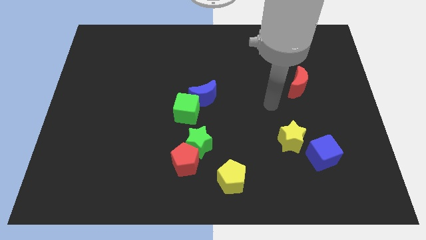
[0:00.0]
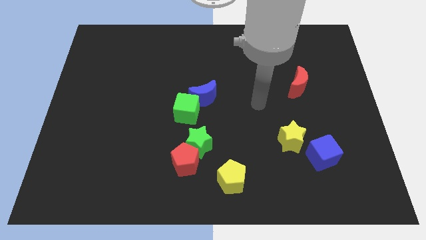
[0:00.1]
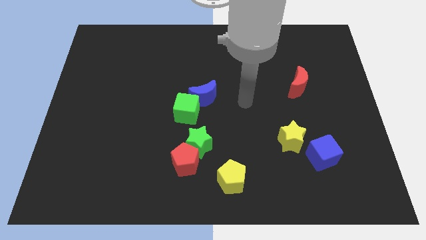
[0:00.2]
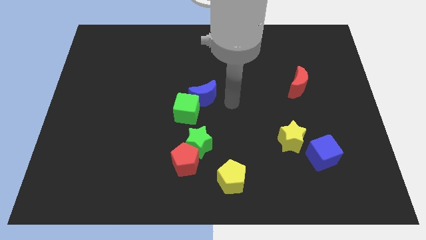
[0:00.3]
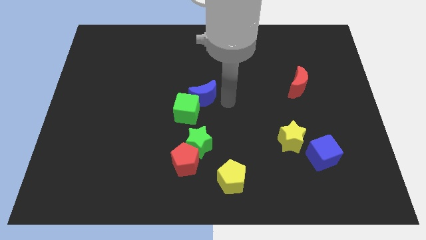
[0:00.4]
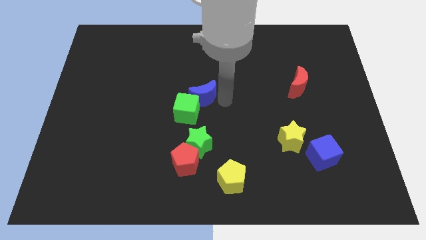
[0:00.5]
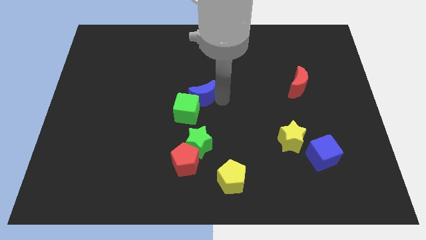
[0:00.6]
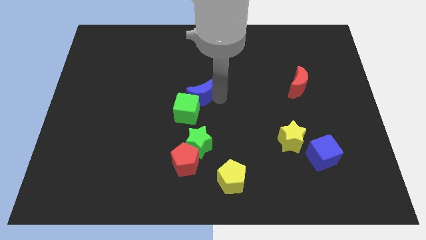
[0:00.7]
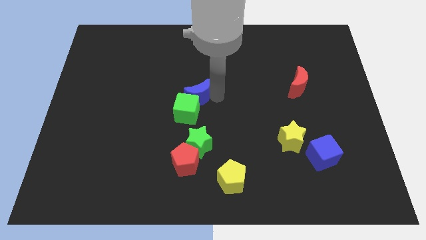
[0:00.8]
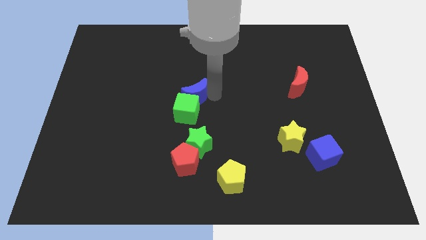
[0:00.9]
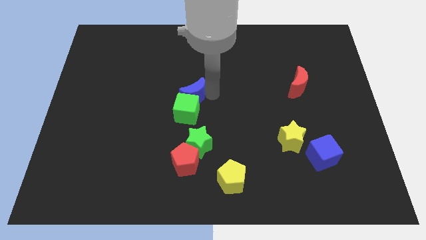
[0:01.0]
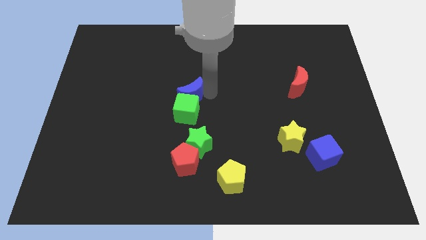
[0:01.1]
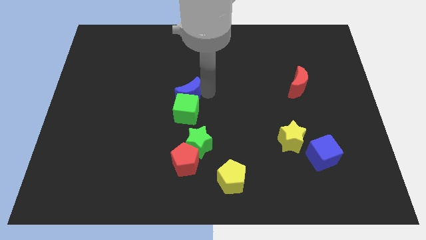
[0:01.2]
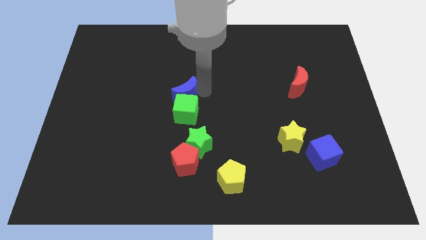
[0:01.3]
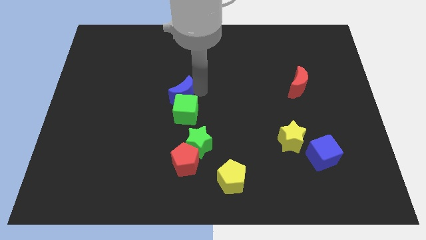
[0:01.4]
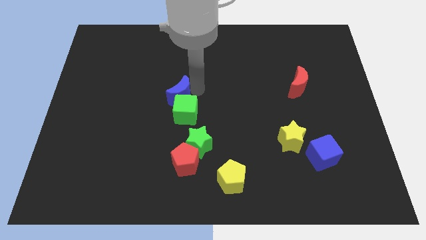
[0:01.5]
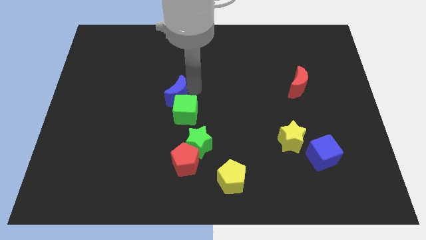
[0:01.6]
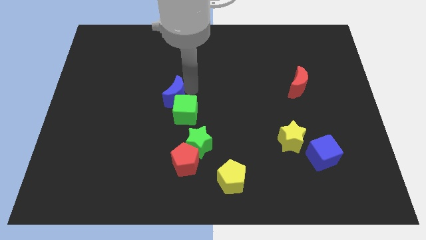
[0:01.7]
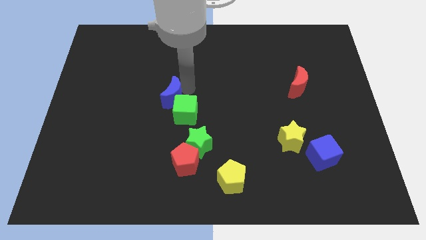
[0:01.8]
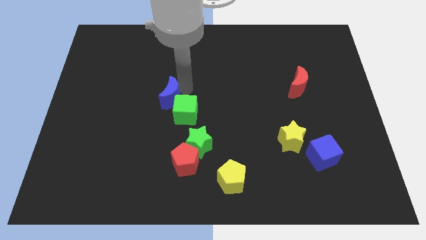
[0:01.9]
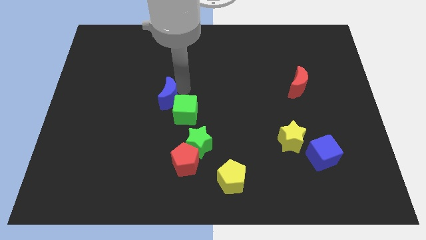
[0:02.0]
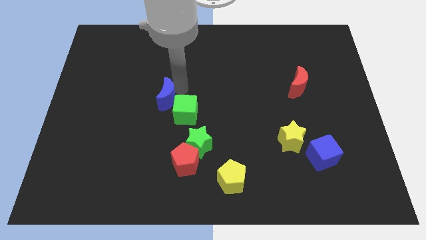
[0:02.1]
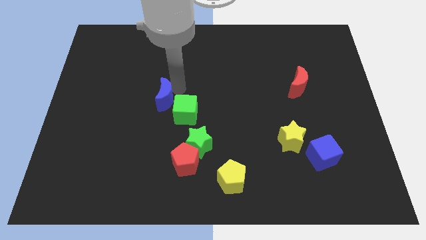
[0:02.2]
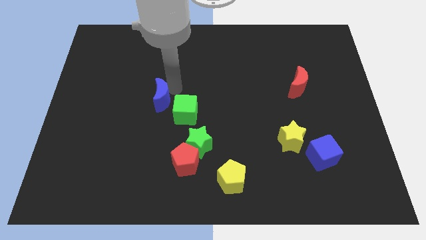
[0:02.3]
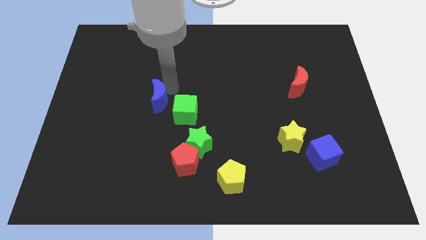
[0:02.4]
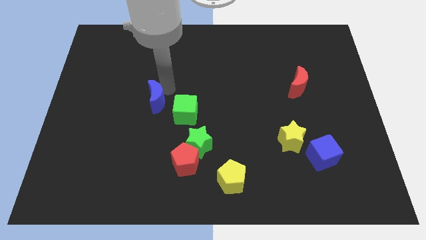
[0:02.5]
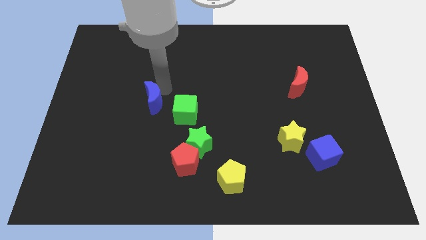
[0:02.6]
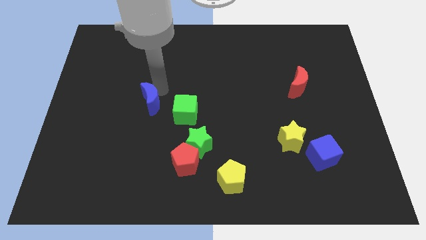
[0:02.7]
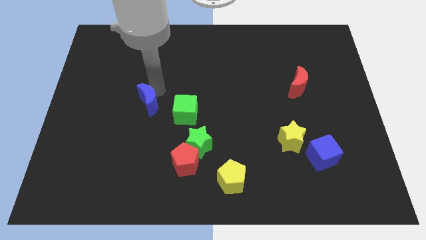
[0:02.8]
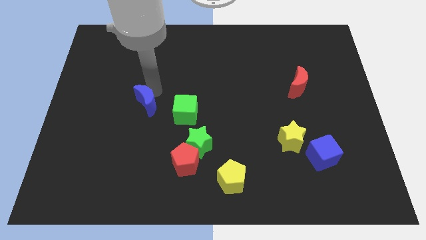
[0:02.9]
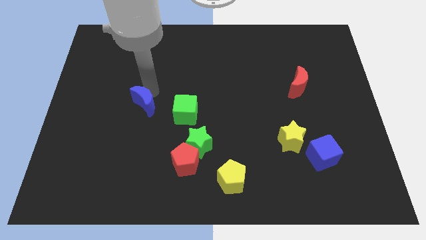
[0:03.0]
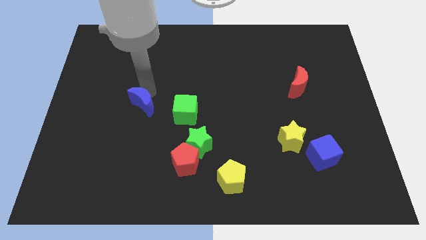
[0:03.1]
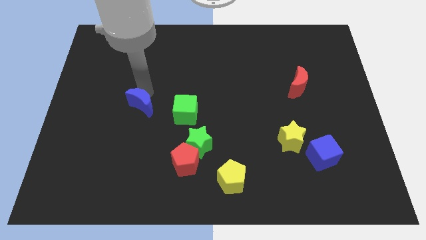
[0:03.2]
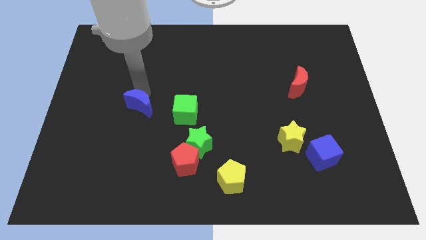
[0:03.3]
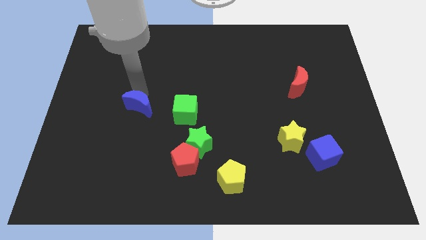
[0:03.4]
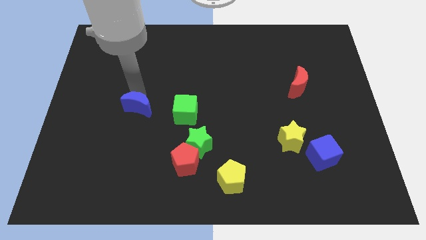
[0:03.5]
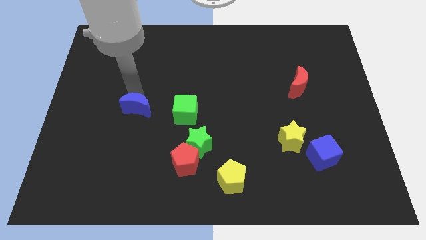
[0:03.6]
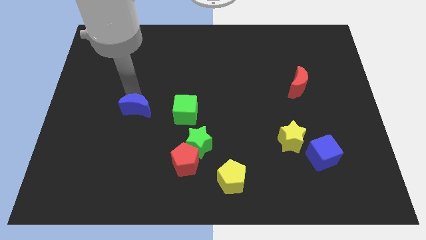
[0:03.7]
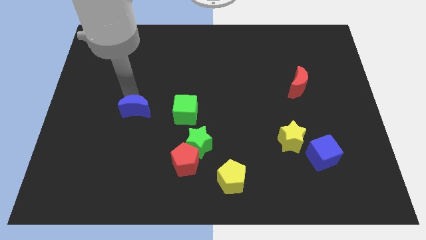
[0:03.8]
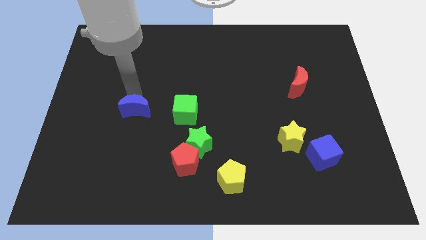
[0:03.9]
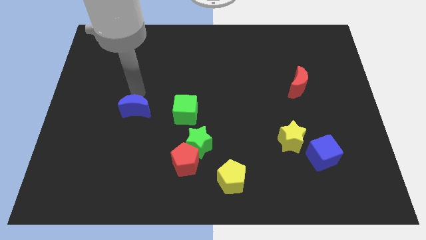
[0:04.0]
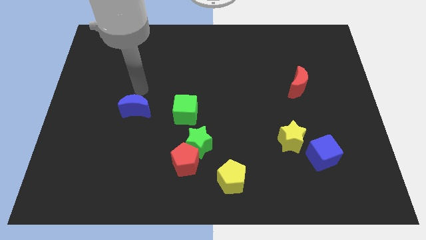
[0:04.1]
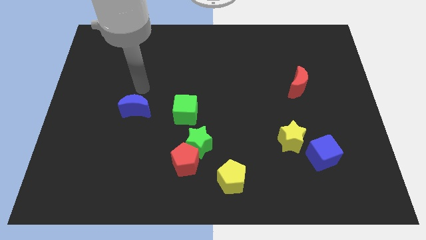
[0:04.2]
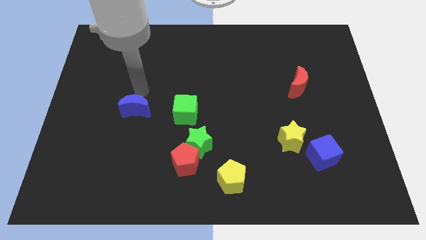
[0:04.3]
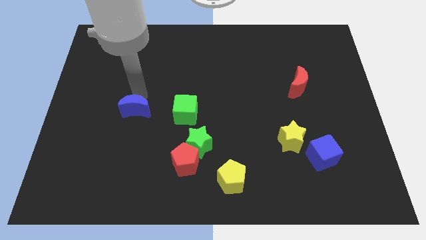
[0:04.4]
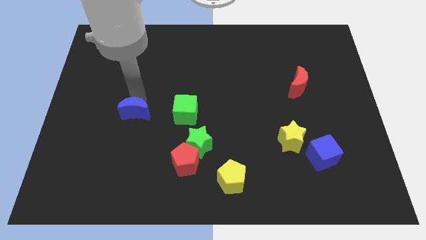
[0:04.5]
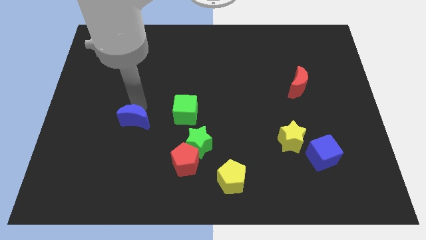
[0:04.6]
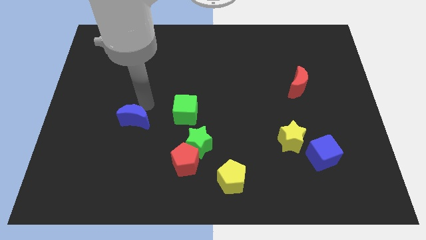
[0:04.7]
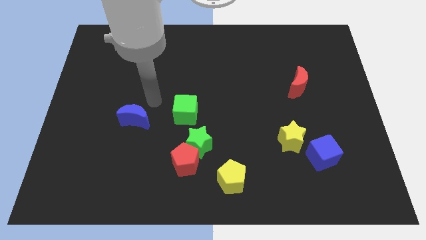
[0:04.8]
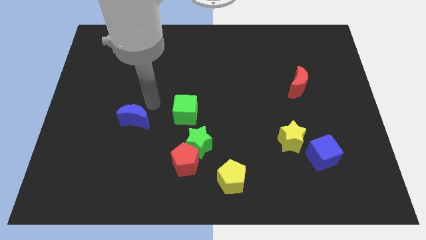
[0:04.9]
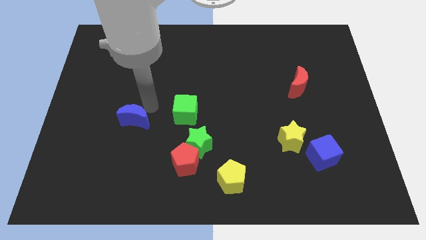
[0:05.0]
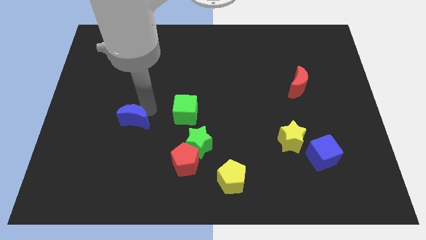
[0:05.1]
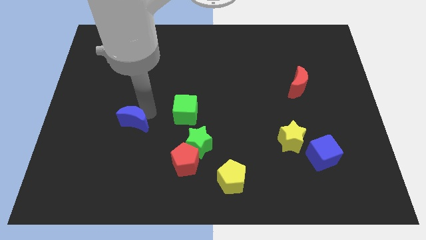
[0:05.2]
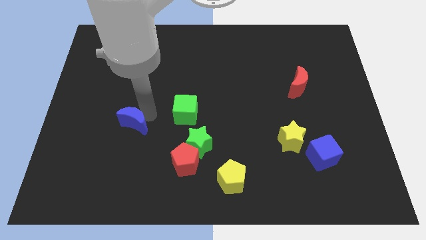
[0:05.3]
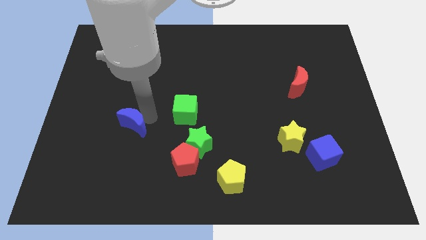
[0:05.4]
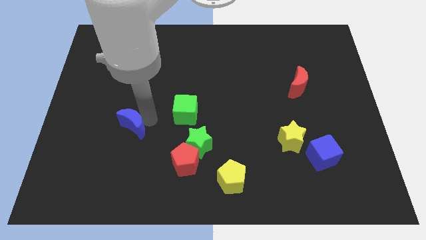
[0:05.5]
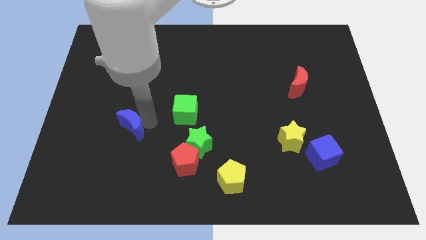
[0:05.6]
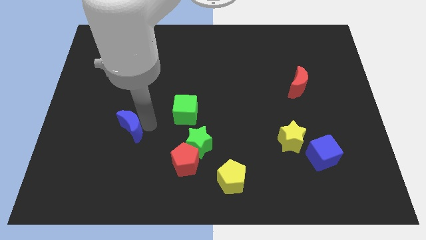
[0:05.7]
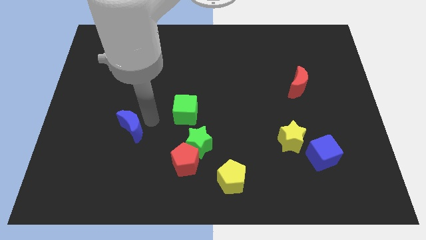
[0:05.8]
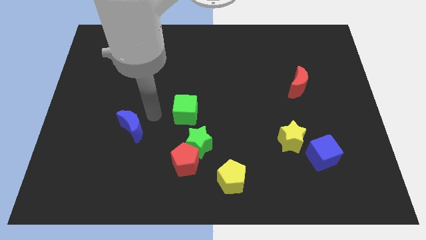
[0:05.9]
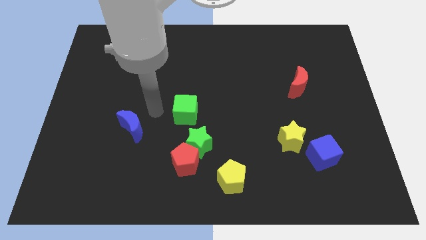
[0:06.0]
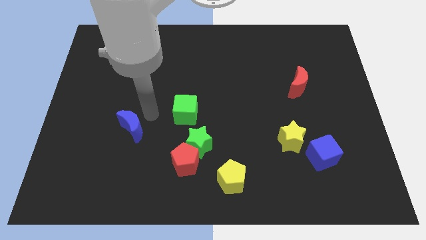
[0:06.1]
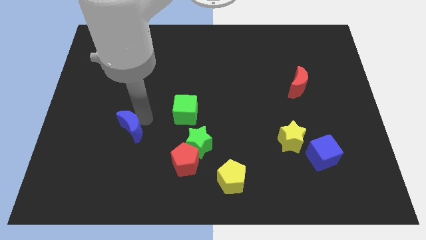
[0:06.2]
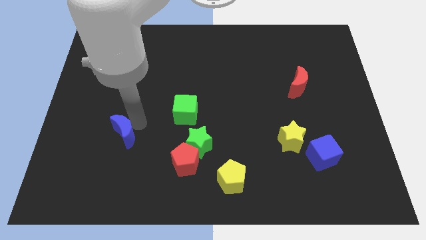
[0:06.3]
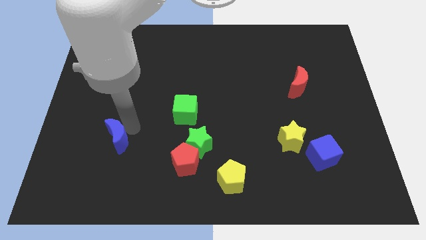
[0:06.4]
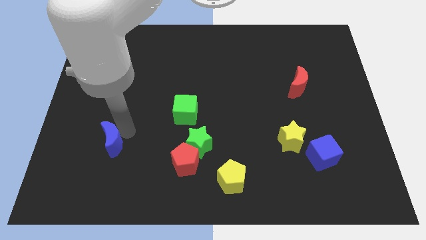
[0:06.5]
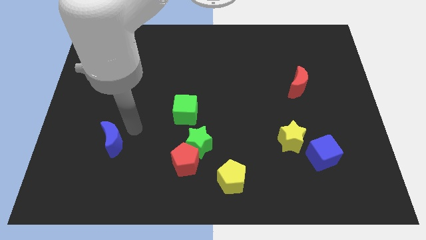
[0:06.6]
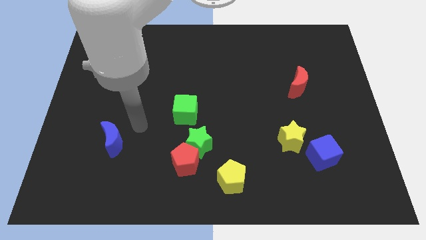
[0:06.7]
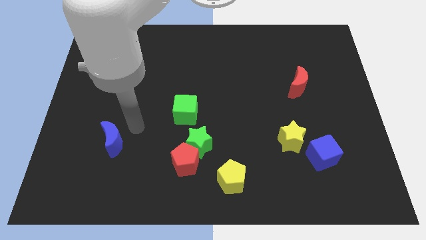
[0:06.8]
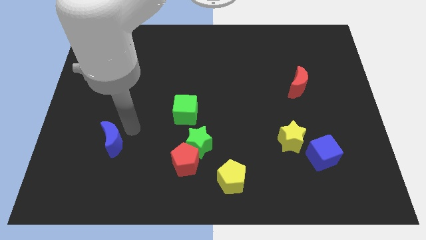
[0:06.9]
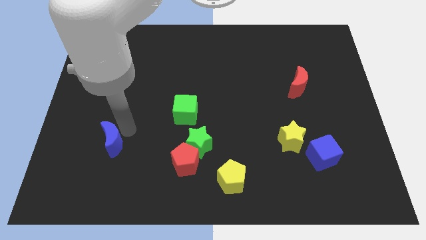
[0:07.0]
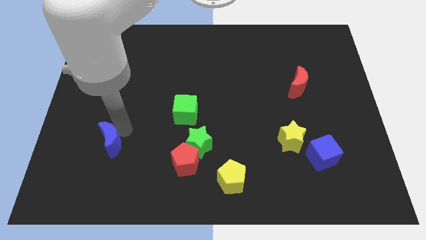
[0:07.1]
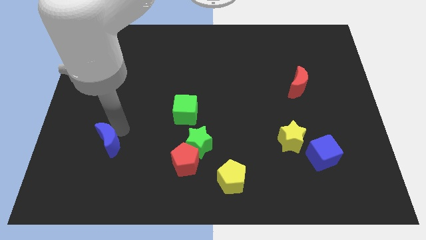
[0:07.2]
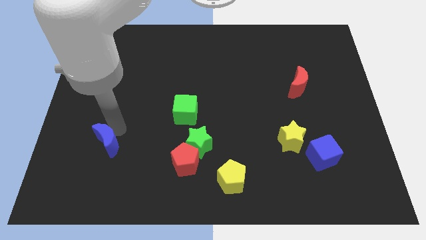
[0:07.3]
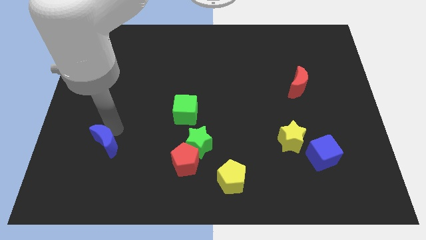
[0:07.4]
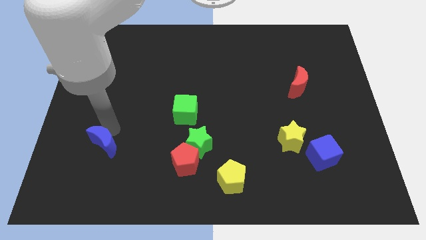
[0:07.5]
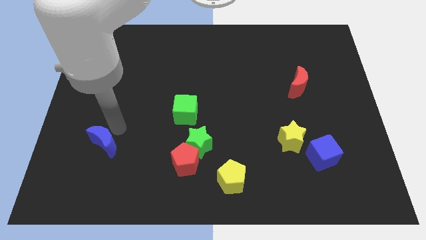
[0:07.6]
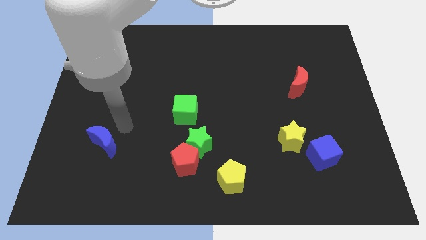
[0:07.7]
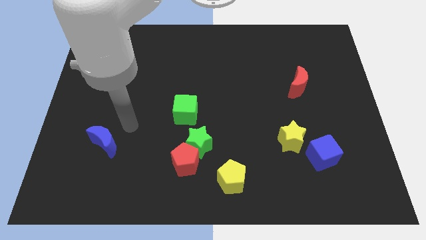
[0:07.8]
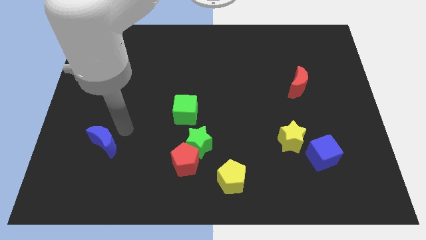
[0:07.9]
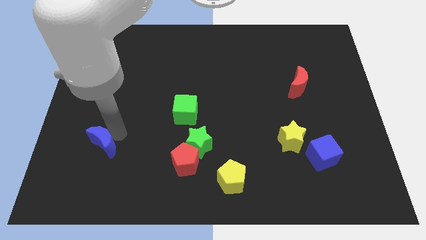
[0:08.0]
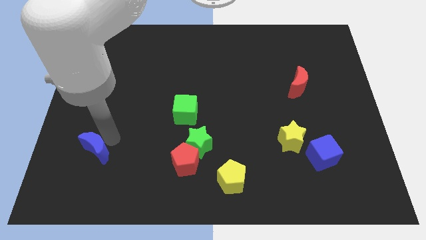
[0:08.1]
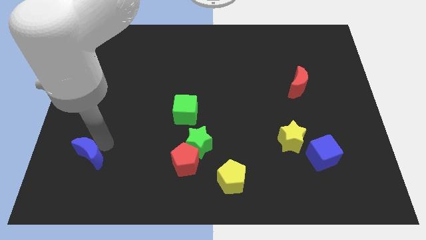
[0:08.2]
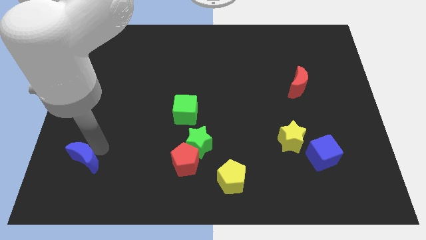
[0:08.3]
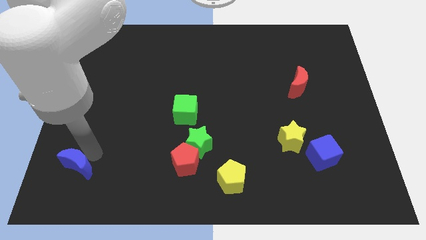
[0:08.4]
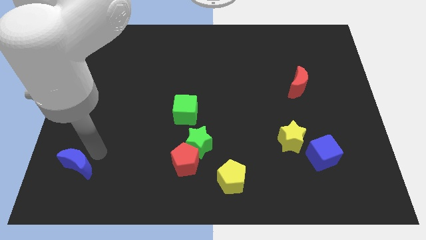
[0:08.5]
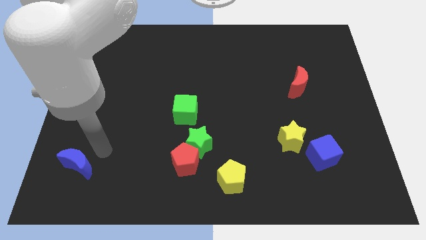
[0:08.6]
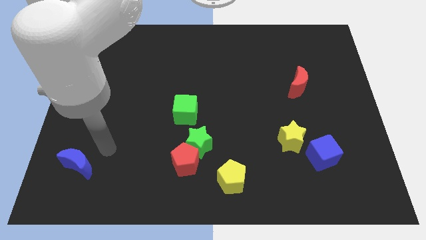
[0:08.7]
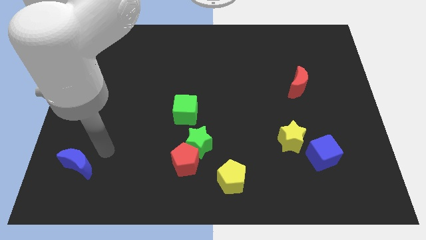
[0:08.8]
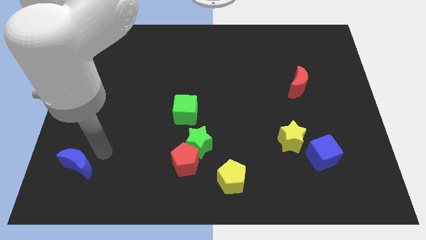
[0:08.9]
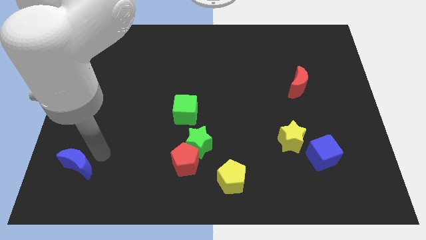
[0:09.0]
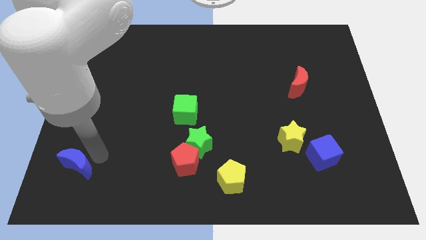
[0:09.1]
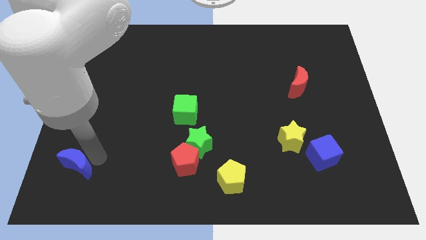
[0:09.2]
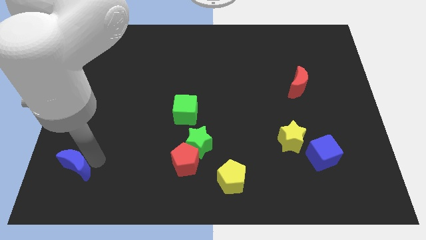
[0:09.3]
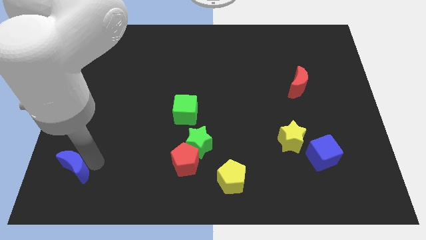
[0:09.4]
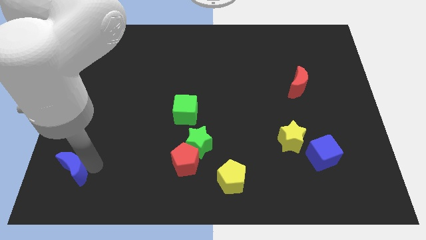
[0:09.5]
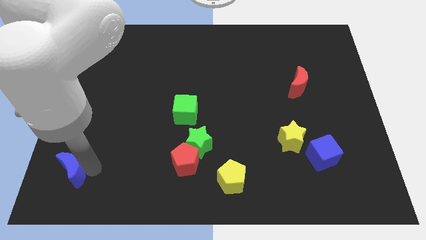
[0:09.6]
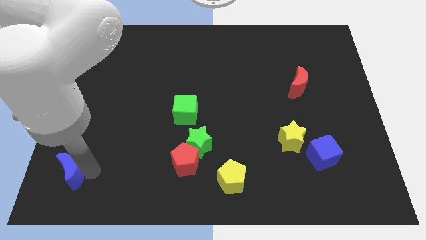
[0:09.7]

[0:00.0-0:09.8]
slide the blue moon to the lower left corner
